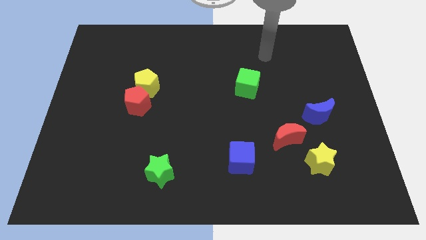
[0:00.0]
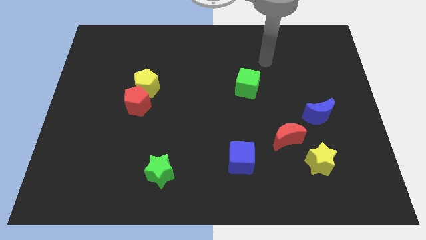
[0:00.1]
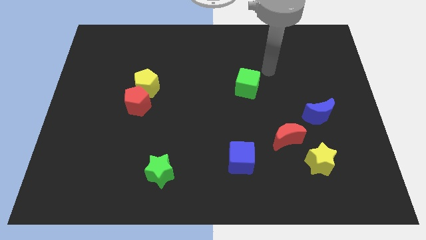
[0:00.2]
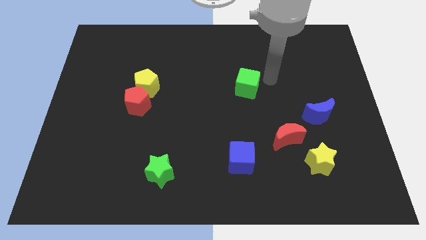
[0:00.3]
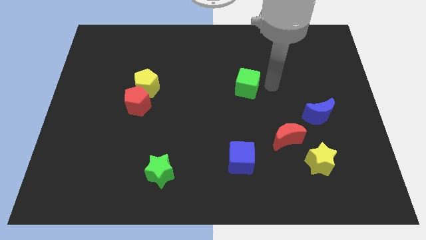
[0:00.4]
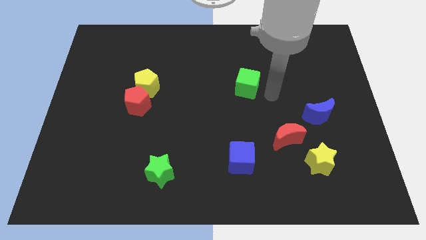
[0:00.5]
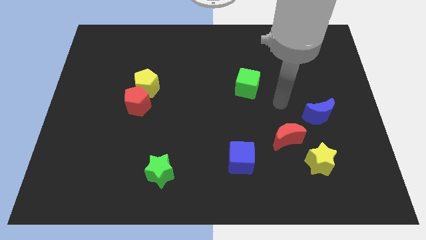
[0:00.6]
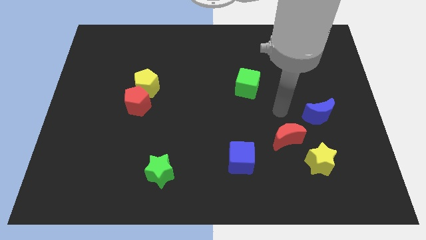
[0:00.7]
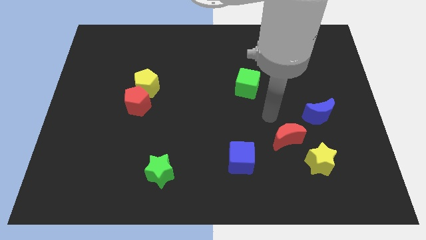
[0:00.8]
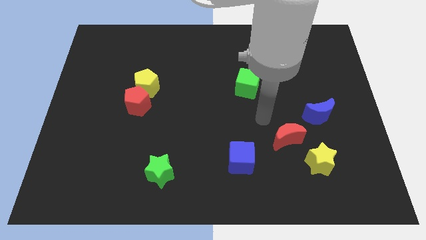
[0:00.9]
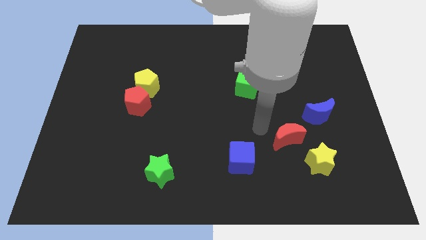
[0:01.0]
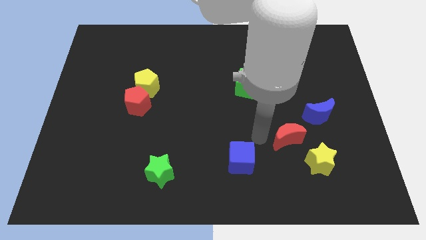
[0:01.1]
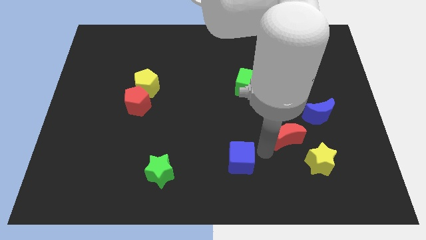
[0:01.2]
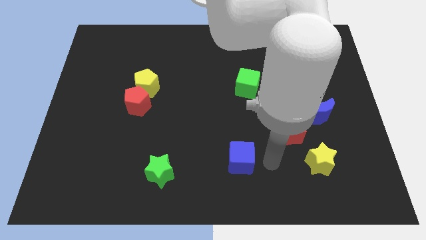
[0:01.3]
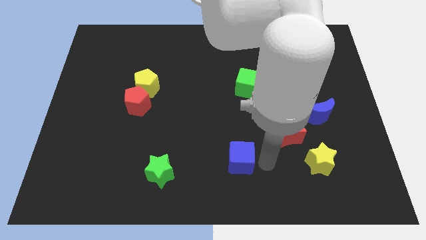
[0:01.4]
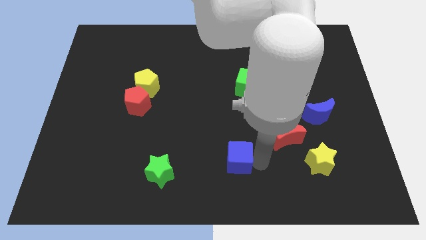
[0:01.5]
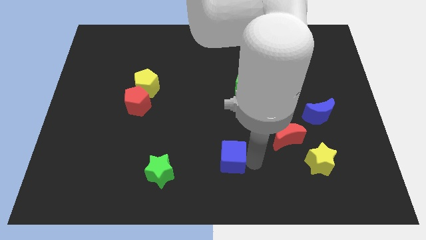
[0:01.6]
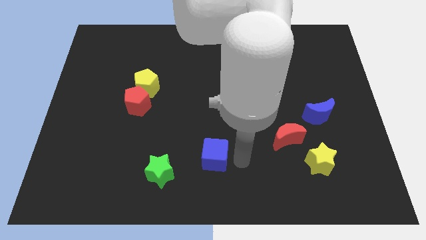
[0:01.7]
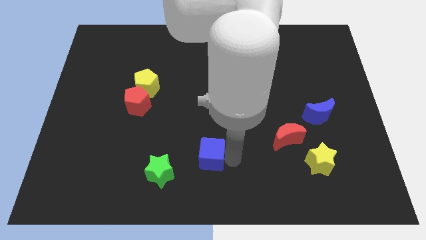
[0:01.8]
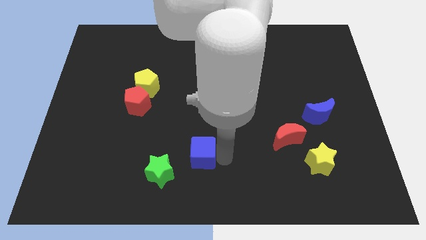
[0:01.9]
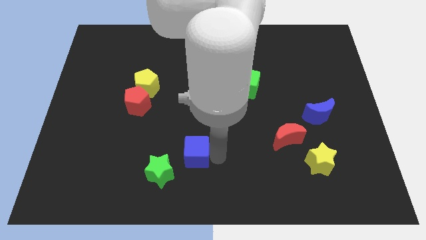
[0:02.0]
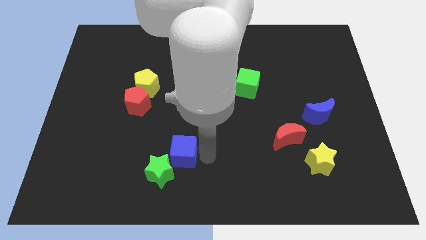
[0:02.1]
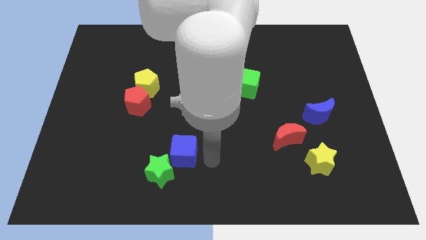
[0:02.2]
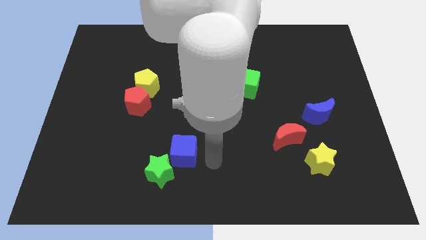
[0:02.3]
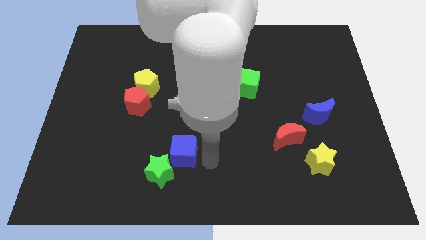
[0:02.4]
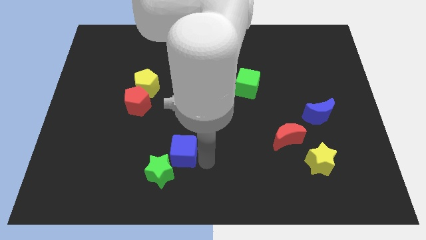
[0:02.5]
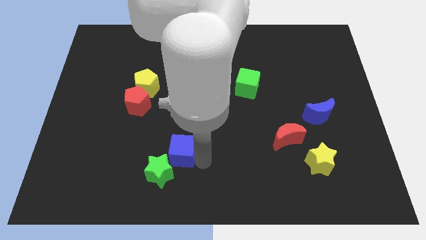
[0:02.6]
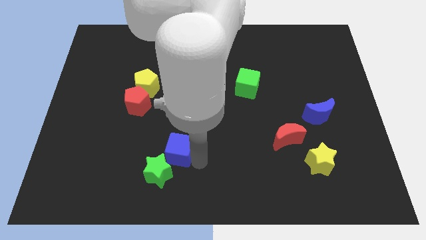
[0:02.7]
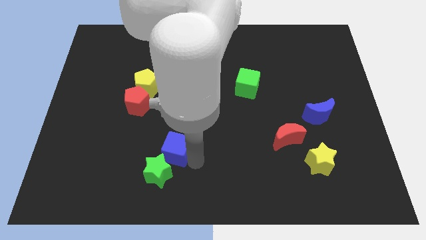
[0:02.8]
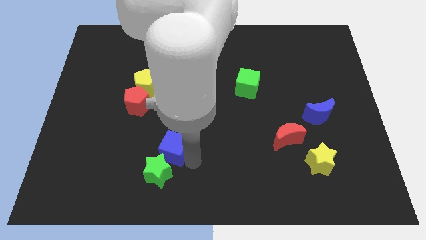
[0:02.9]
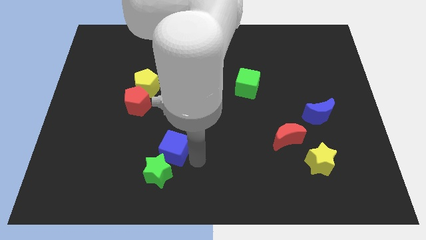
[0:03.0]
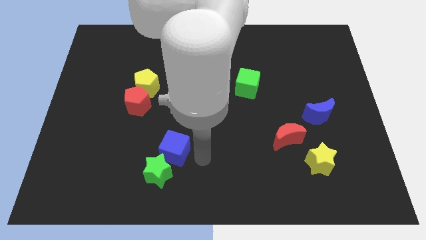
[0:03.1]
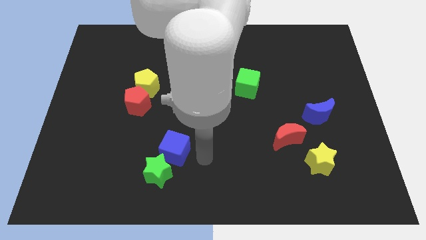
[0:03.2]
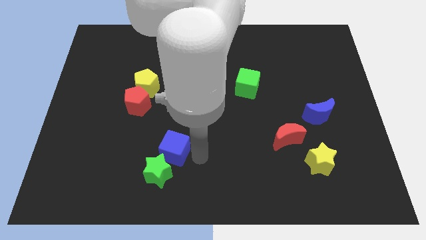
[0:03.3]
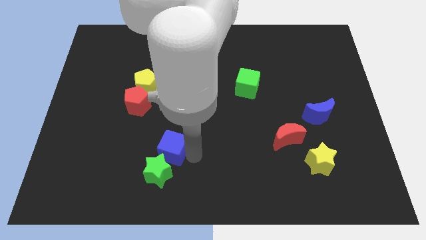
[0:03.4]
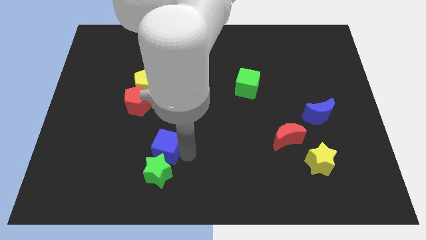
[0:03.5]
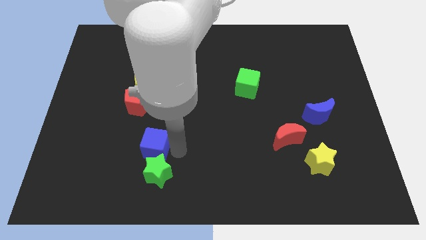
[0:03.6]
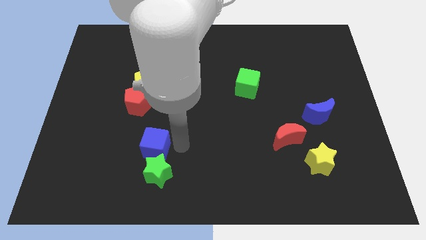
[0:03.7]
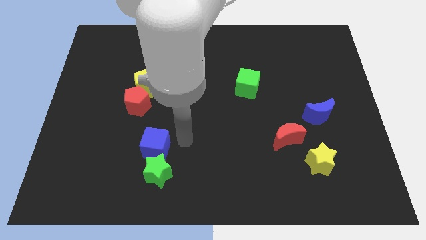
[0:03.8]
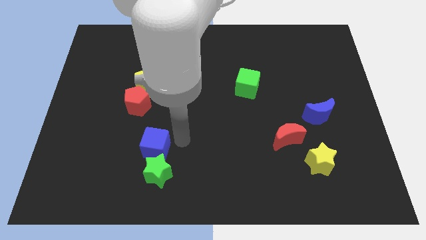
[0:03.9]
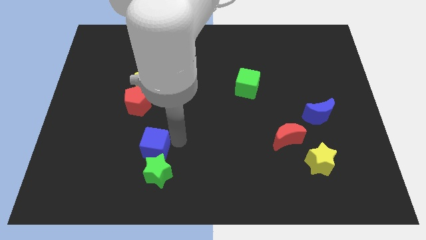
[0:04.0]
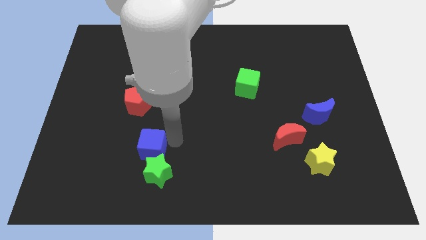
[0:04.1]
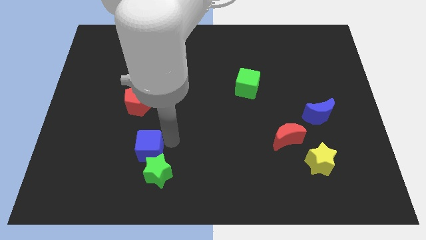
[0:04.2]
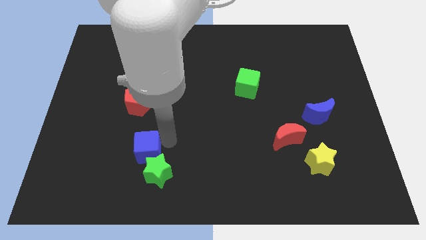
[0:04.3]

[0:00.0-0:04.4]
push the blue cube left

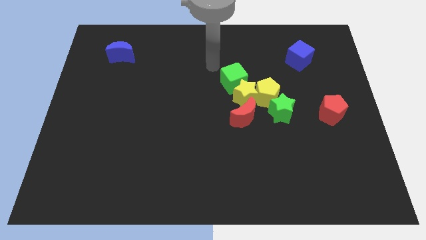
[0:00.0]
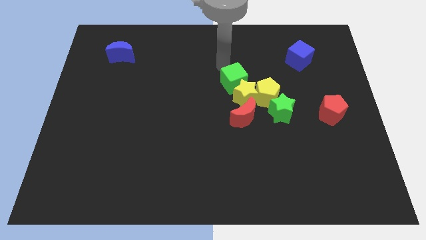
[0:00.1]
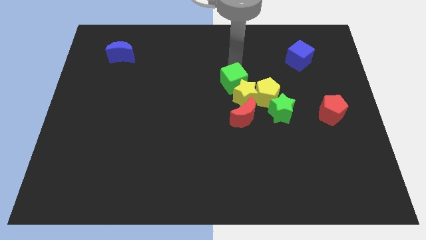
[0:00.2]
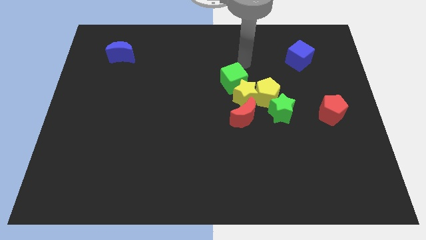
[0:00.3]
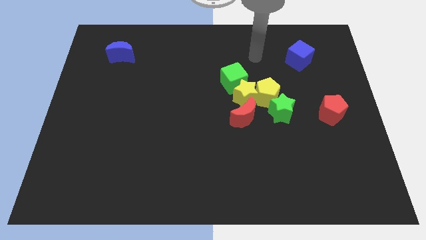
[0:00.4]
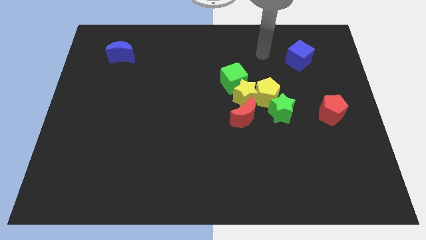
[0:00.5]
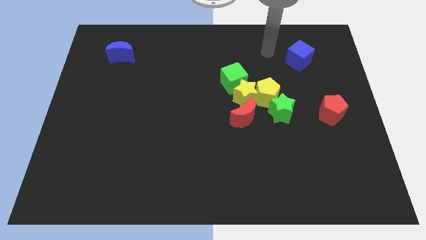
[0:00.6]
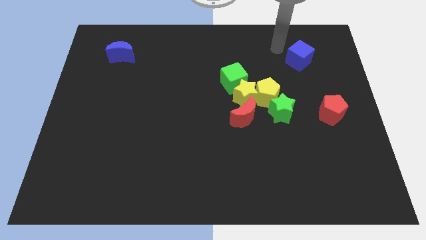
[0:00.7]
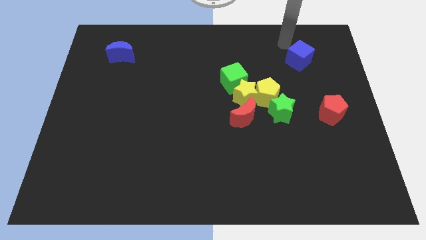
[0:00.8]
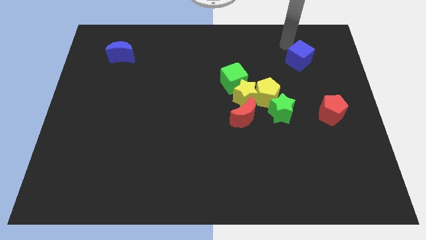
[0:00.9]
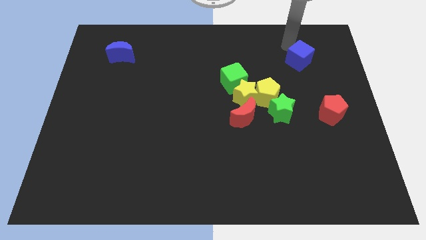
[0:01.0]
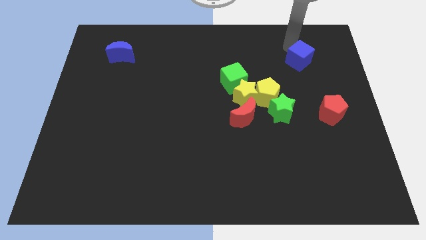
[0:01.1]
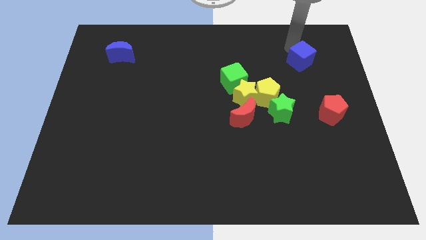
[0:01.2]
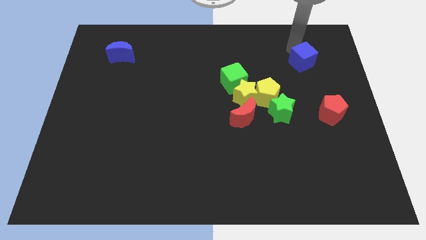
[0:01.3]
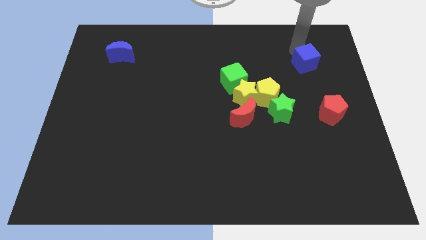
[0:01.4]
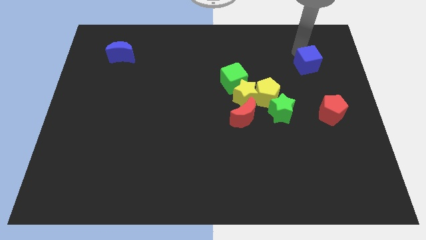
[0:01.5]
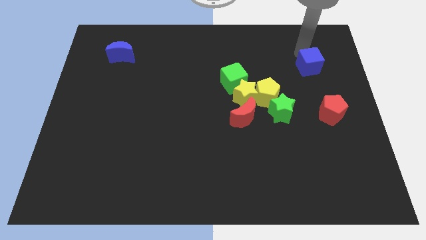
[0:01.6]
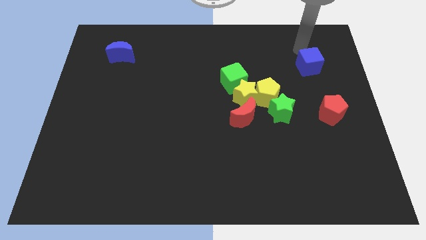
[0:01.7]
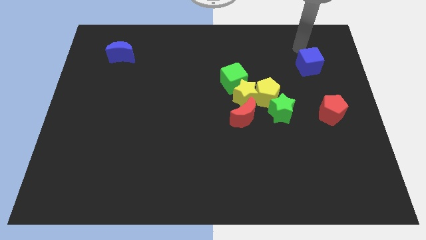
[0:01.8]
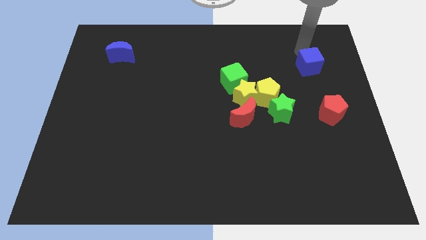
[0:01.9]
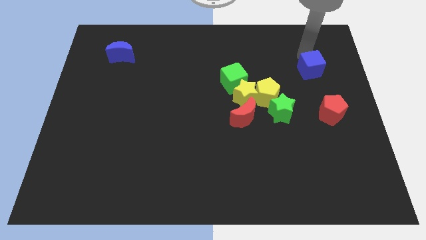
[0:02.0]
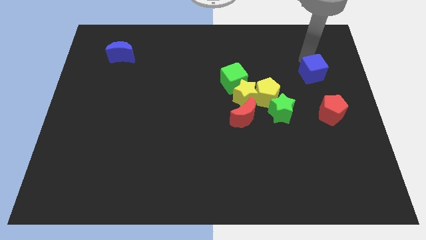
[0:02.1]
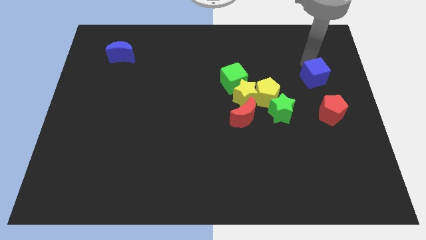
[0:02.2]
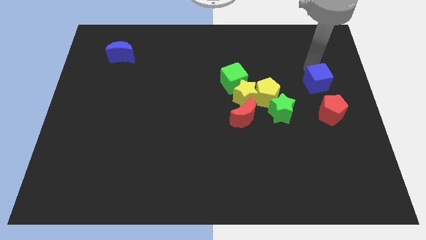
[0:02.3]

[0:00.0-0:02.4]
slide the blue cube a bit down

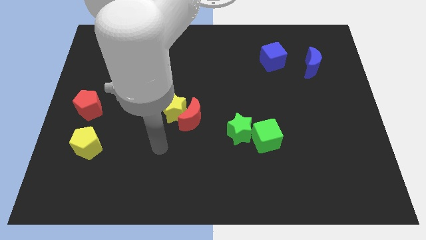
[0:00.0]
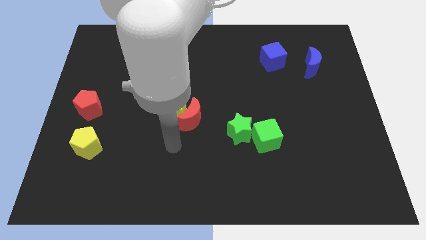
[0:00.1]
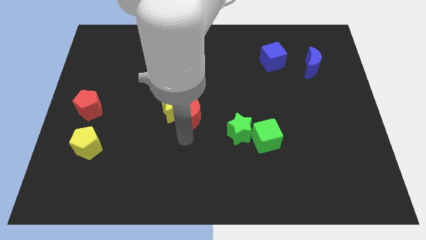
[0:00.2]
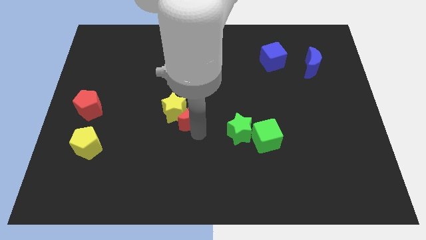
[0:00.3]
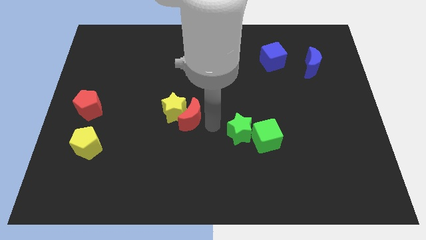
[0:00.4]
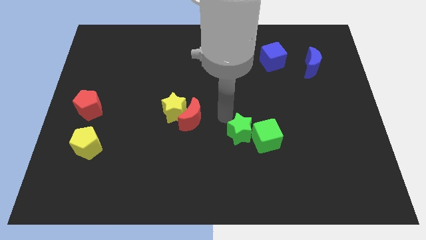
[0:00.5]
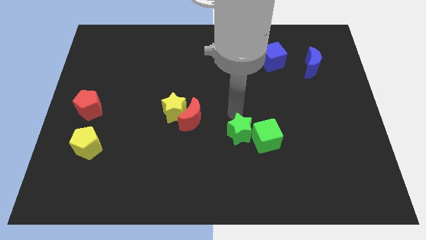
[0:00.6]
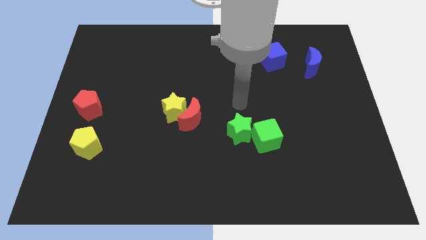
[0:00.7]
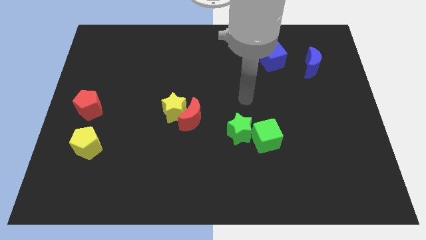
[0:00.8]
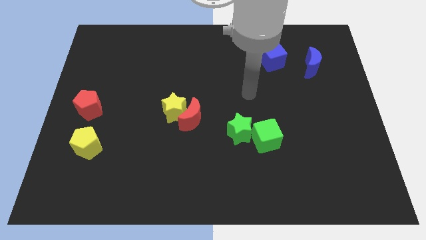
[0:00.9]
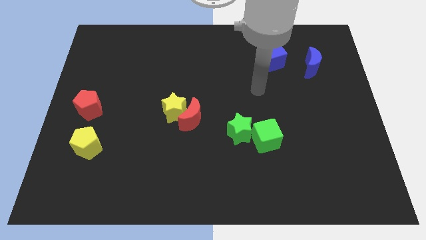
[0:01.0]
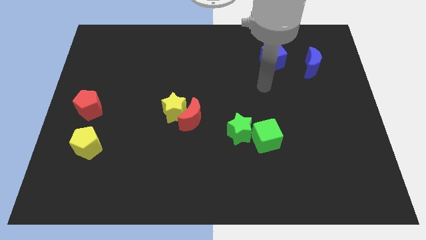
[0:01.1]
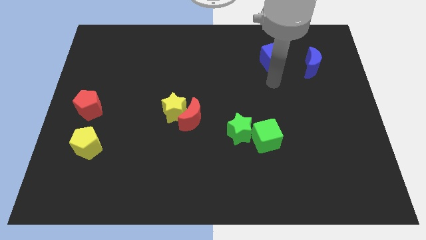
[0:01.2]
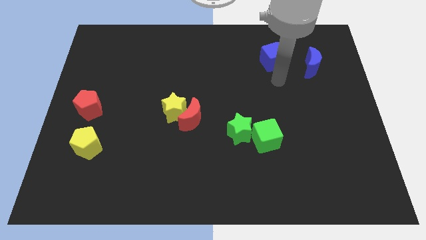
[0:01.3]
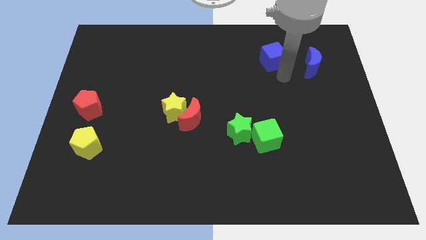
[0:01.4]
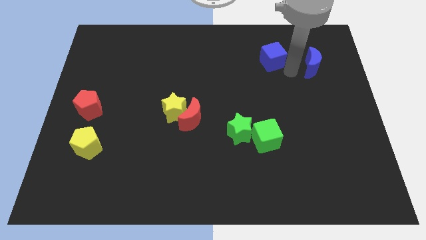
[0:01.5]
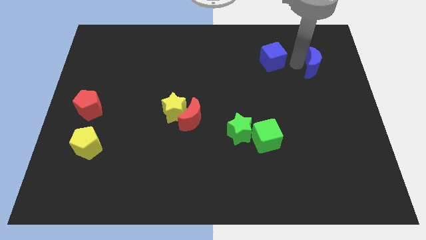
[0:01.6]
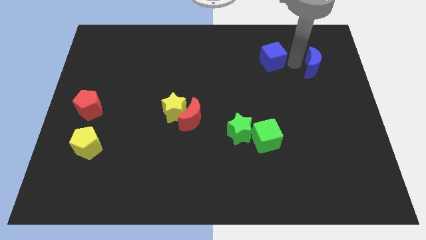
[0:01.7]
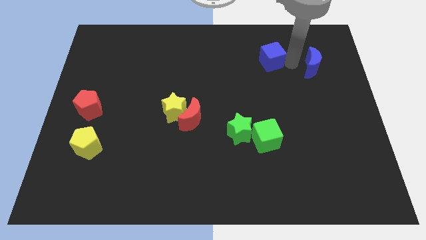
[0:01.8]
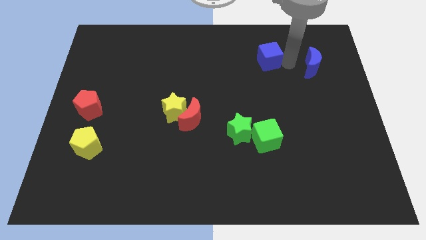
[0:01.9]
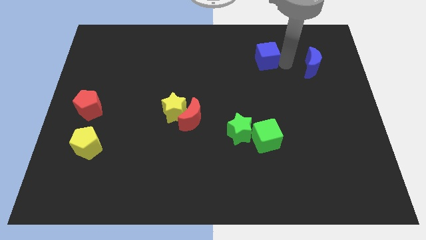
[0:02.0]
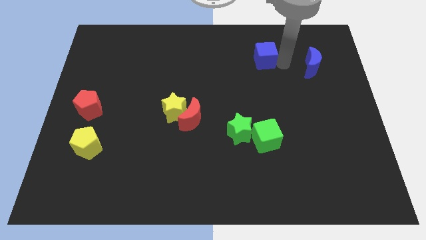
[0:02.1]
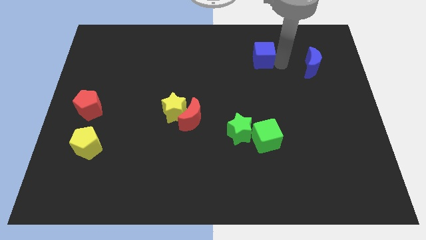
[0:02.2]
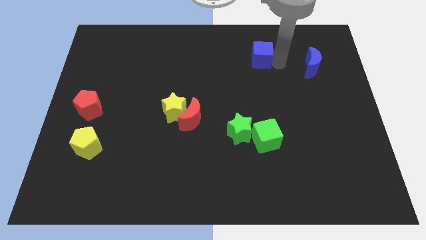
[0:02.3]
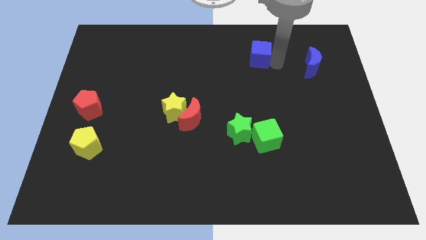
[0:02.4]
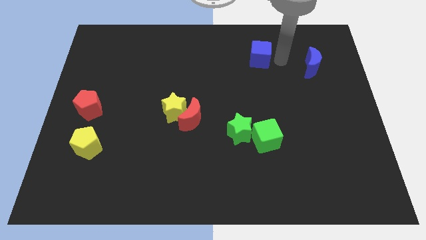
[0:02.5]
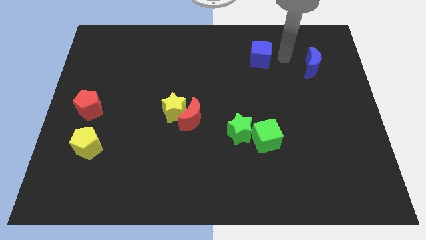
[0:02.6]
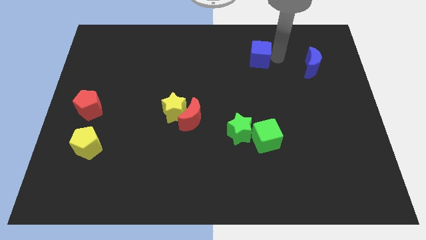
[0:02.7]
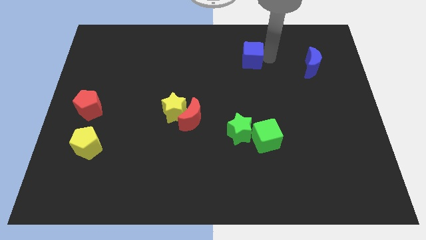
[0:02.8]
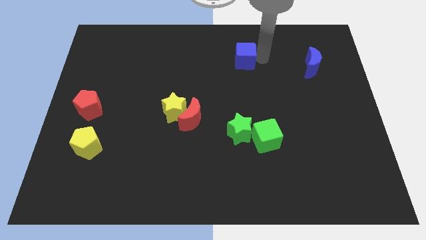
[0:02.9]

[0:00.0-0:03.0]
move the blue cube a little bit to the left
